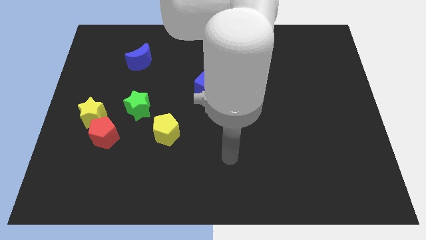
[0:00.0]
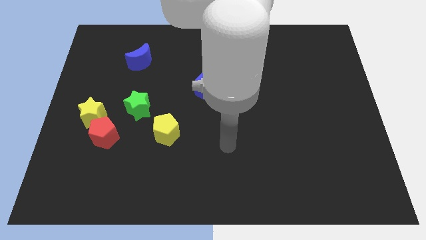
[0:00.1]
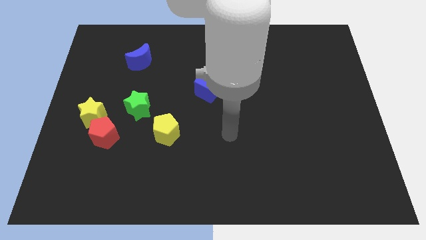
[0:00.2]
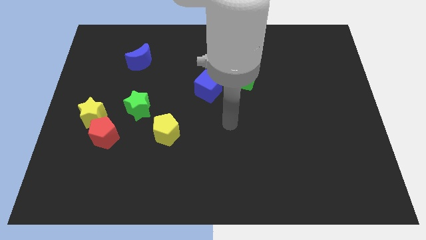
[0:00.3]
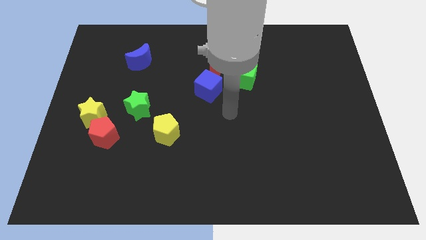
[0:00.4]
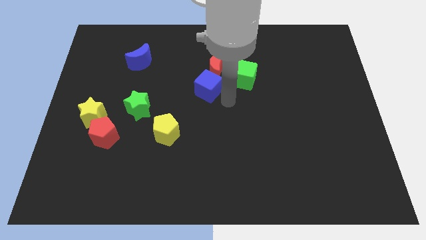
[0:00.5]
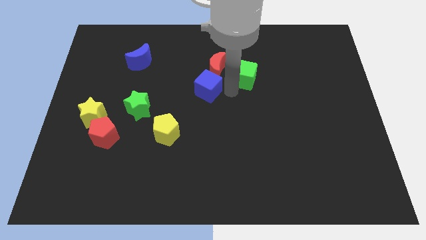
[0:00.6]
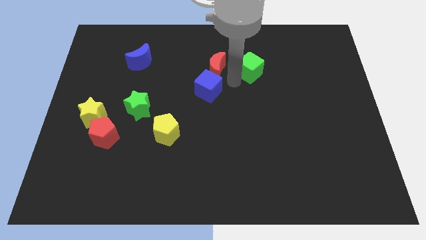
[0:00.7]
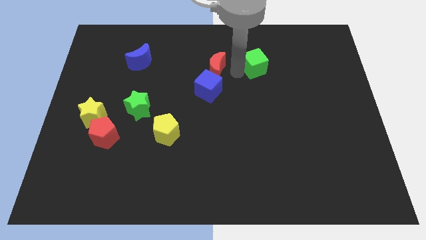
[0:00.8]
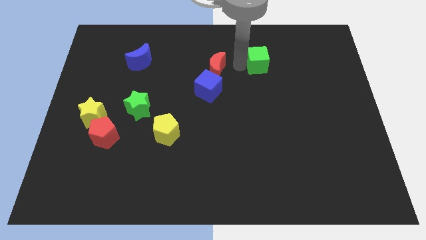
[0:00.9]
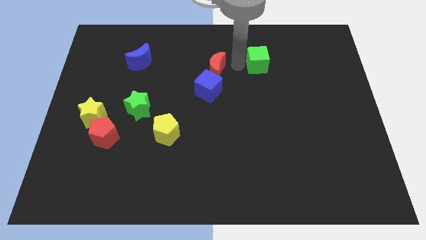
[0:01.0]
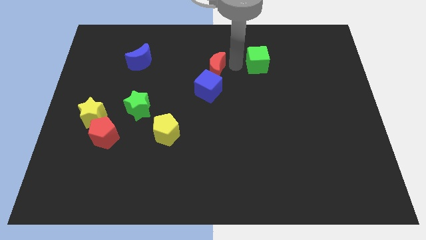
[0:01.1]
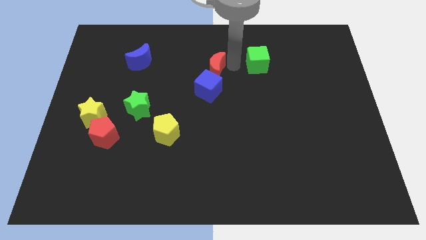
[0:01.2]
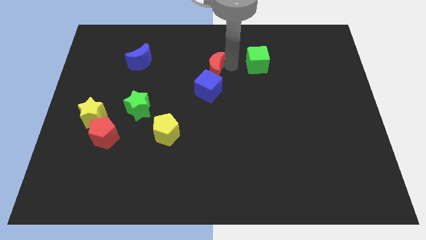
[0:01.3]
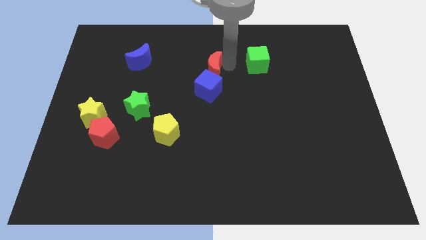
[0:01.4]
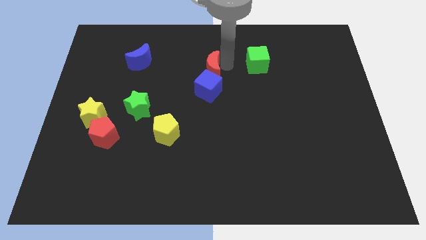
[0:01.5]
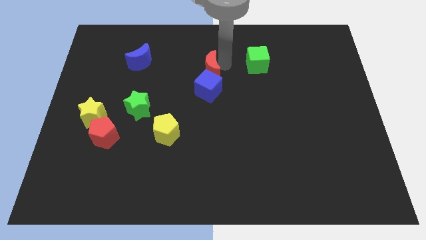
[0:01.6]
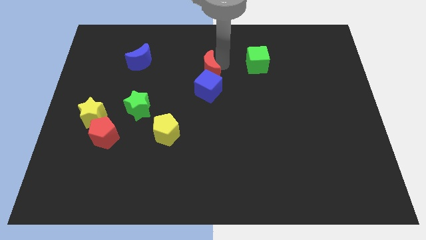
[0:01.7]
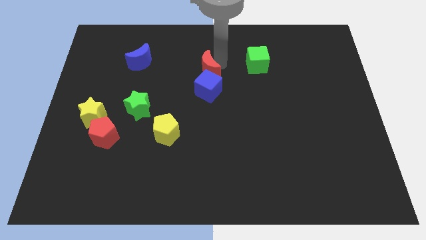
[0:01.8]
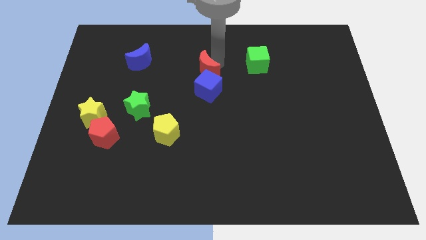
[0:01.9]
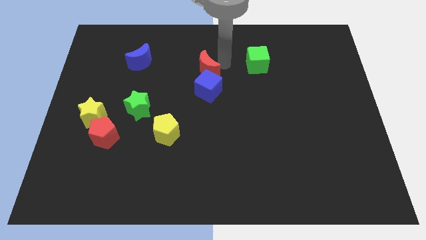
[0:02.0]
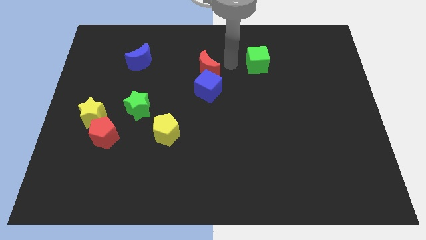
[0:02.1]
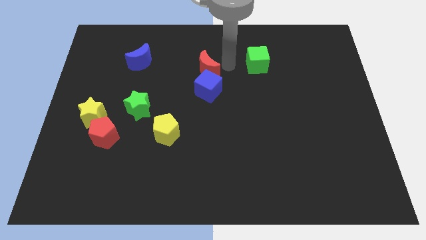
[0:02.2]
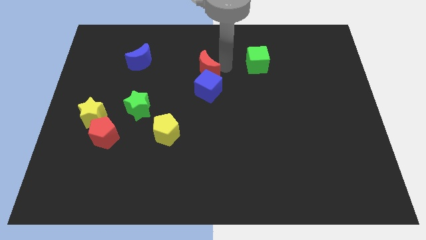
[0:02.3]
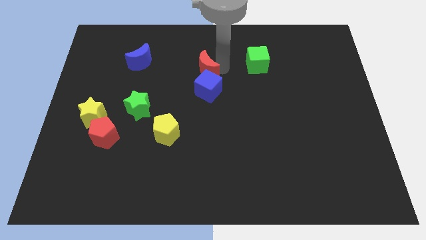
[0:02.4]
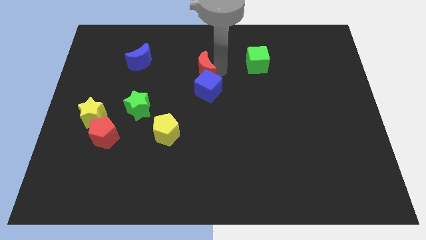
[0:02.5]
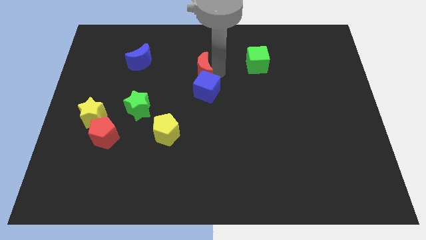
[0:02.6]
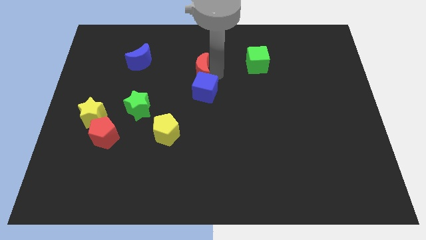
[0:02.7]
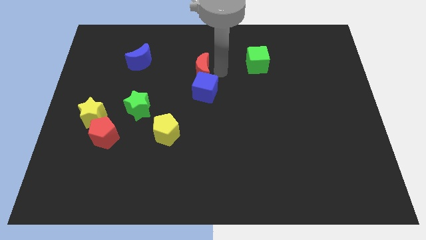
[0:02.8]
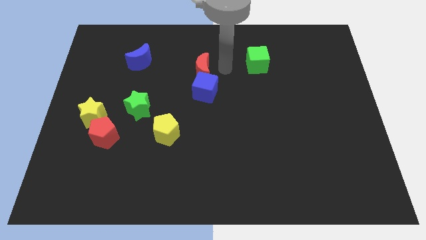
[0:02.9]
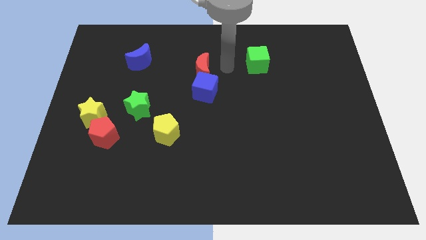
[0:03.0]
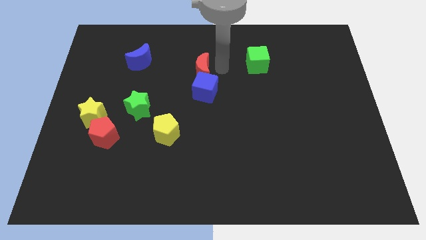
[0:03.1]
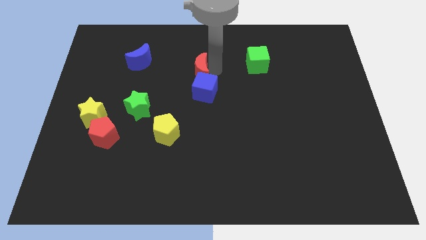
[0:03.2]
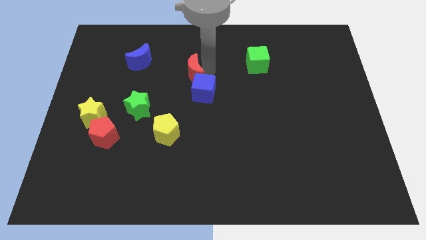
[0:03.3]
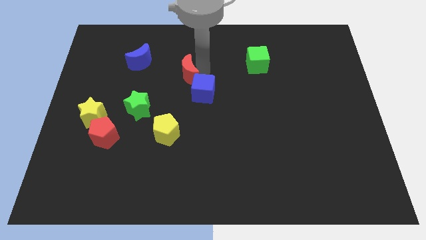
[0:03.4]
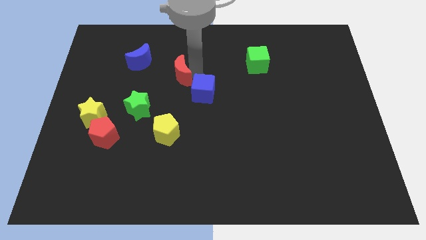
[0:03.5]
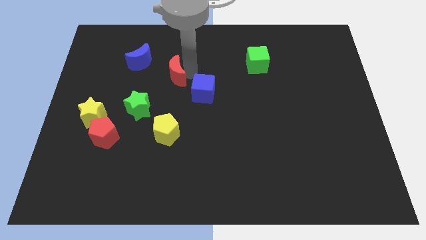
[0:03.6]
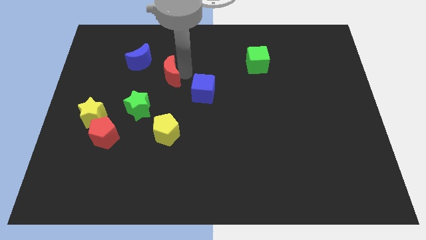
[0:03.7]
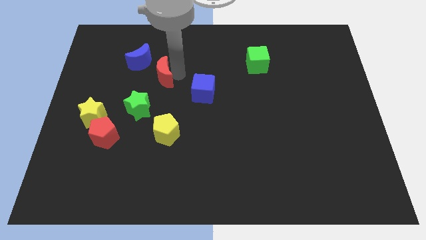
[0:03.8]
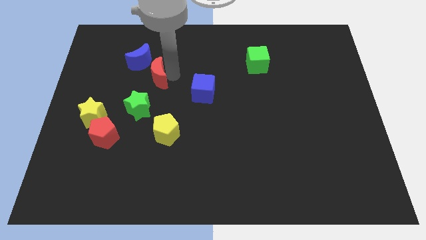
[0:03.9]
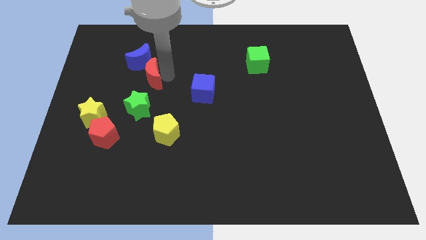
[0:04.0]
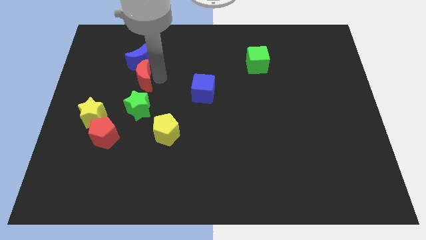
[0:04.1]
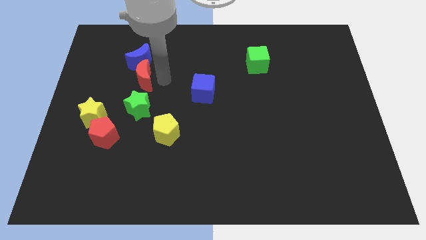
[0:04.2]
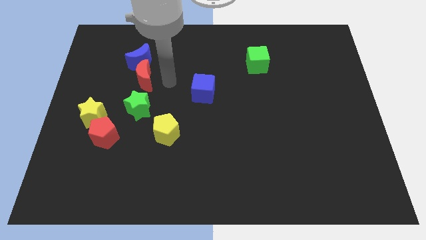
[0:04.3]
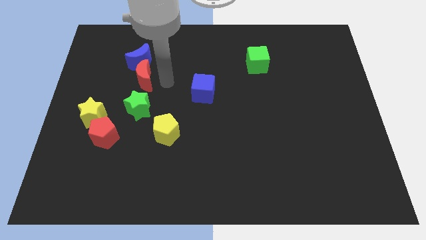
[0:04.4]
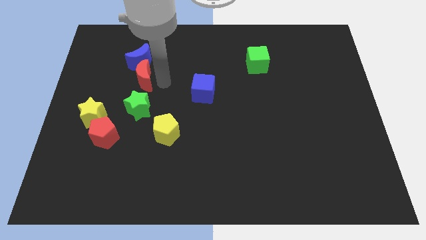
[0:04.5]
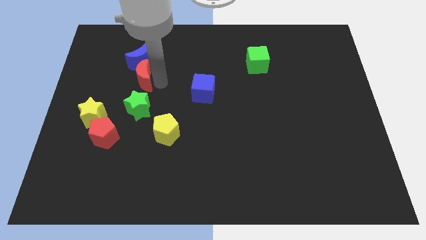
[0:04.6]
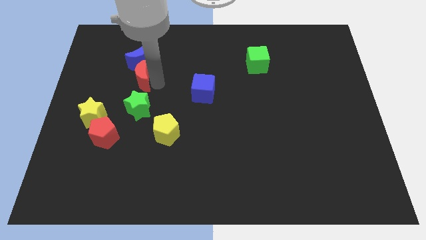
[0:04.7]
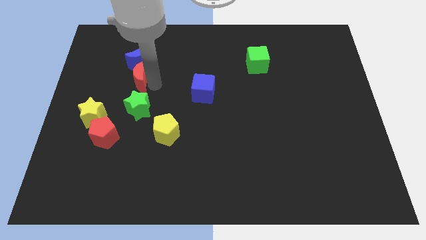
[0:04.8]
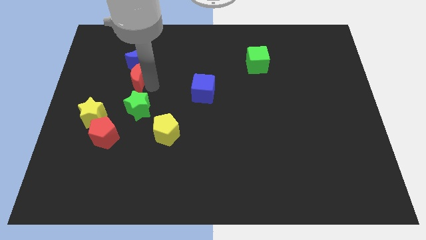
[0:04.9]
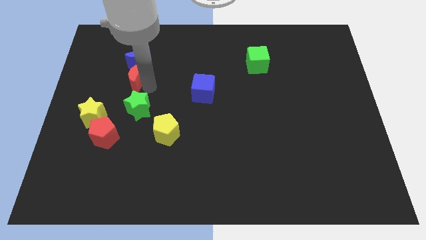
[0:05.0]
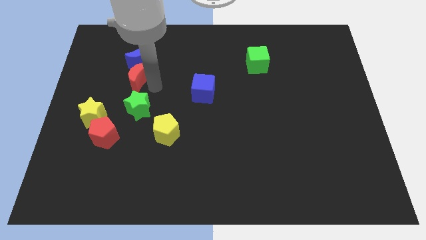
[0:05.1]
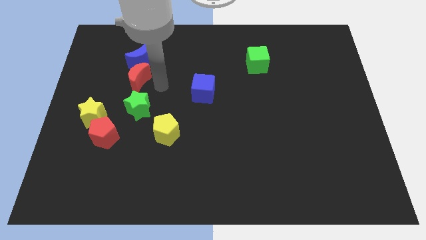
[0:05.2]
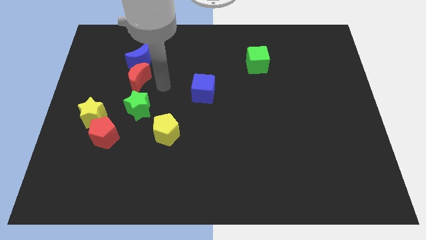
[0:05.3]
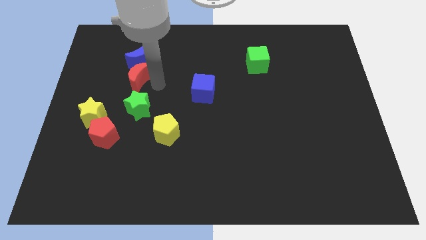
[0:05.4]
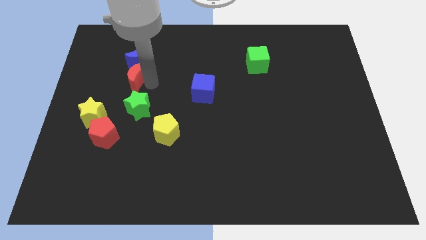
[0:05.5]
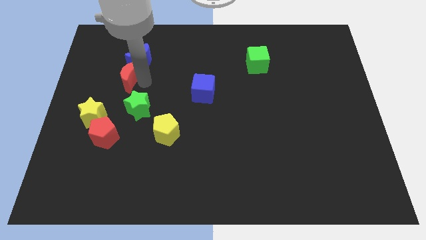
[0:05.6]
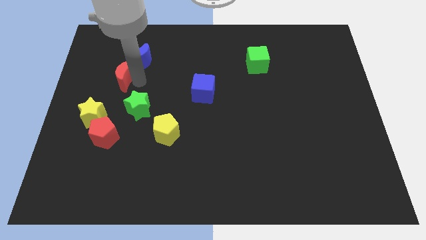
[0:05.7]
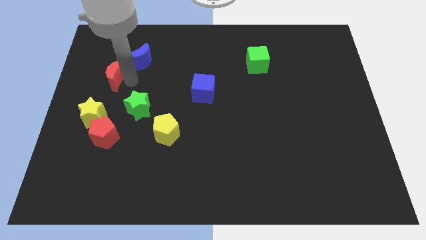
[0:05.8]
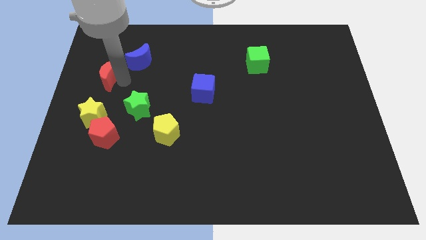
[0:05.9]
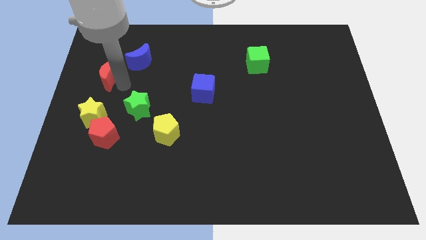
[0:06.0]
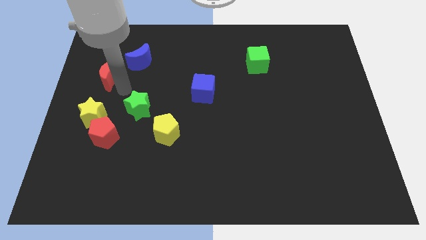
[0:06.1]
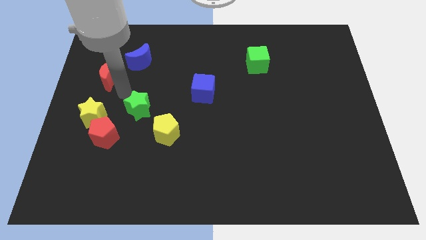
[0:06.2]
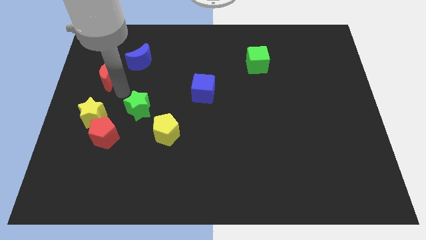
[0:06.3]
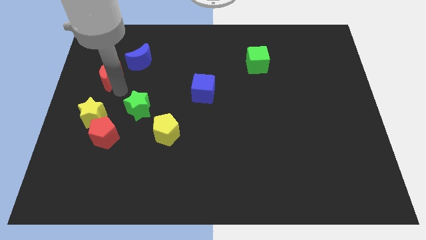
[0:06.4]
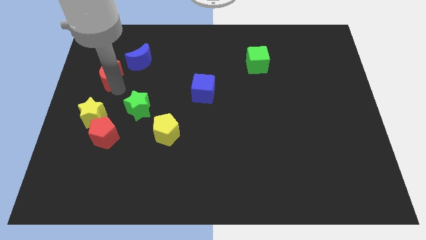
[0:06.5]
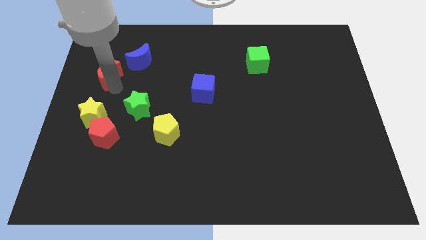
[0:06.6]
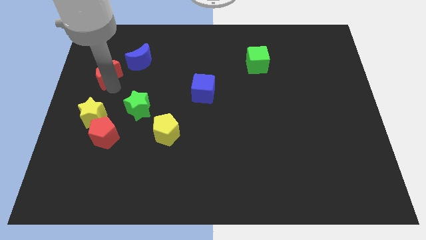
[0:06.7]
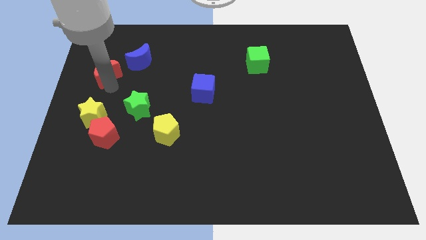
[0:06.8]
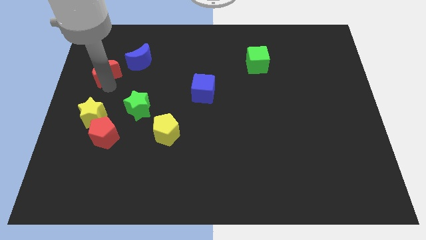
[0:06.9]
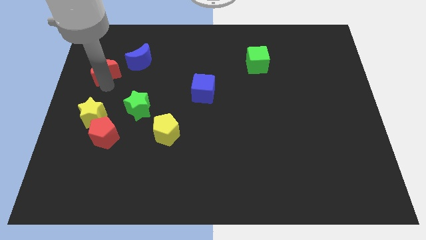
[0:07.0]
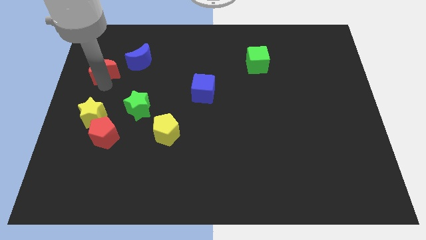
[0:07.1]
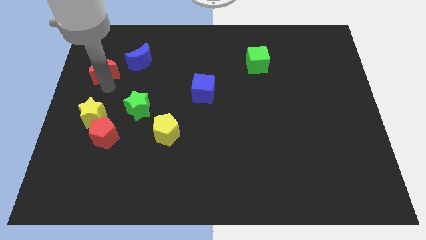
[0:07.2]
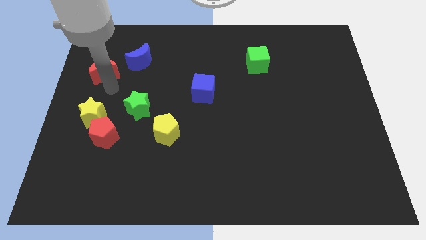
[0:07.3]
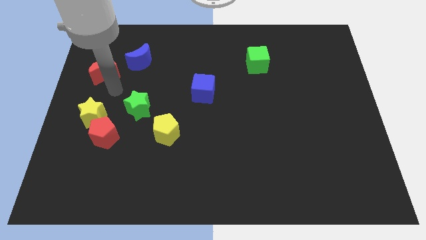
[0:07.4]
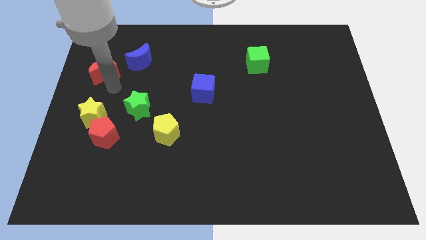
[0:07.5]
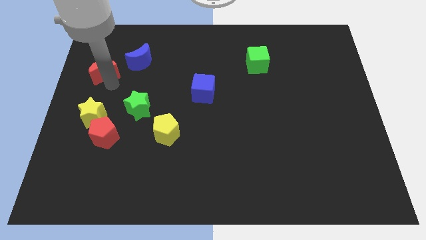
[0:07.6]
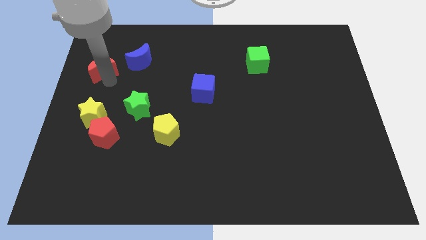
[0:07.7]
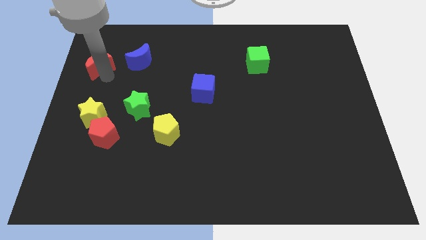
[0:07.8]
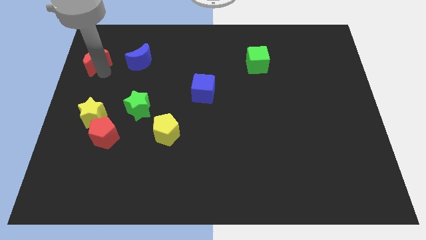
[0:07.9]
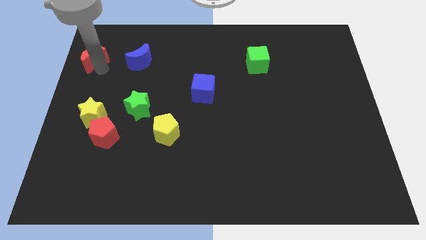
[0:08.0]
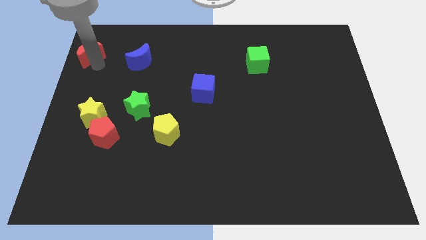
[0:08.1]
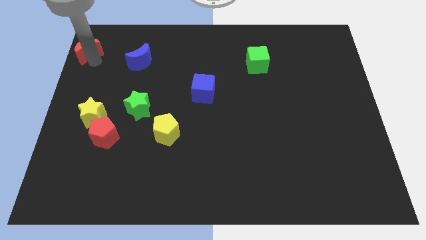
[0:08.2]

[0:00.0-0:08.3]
slide the red moon to the top left of the board

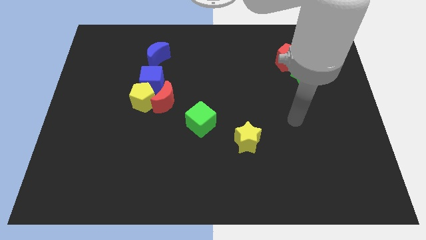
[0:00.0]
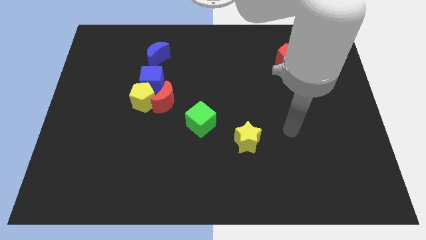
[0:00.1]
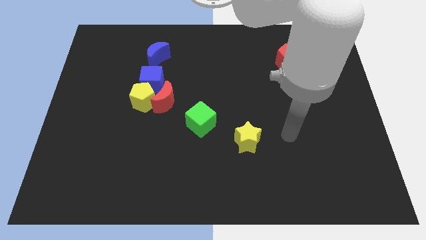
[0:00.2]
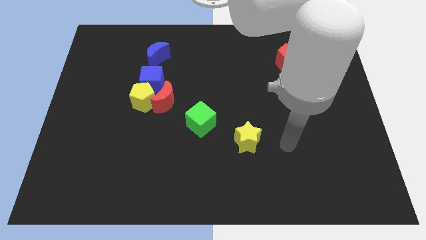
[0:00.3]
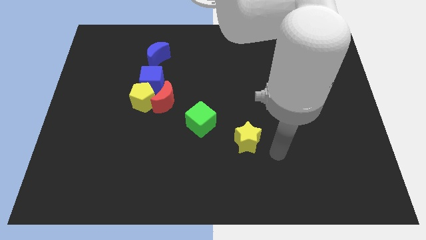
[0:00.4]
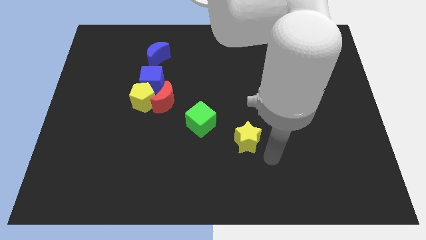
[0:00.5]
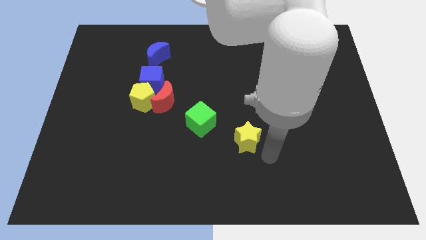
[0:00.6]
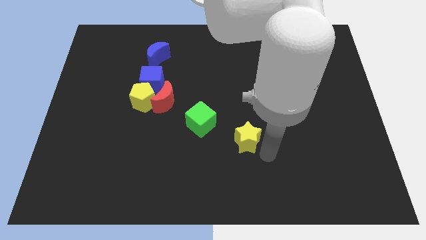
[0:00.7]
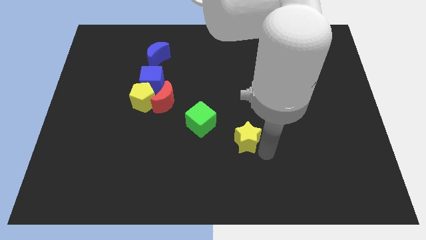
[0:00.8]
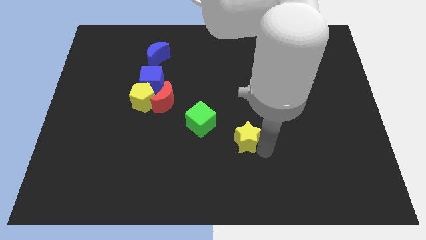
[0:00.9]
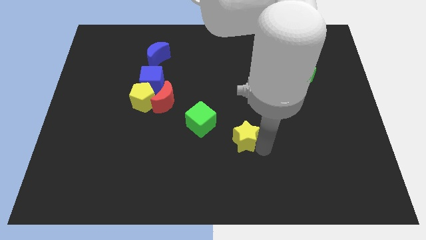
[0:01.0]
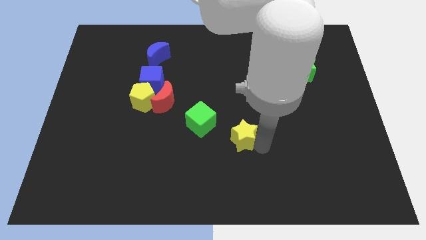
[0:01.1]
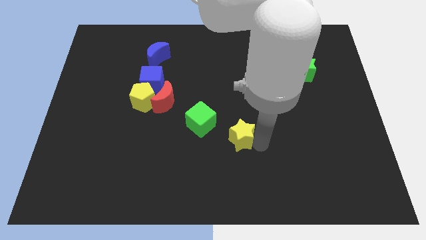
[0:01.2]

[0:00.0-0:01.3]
slide the yellow star to the center
